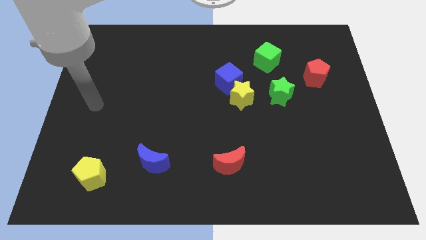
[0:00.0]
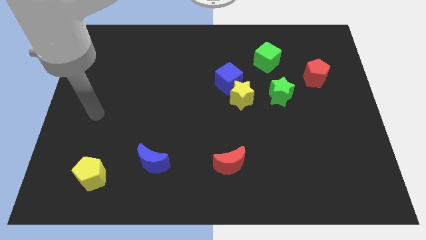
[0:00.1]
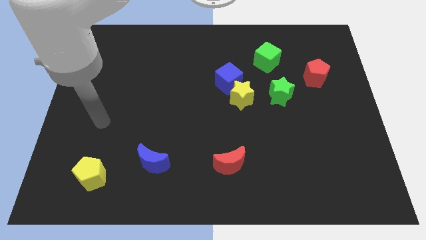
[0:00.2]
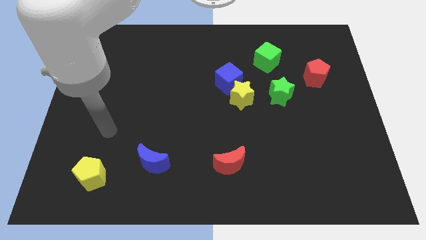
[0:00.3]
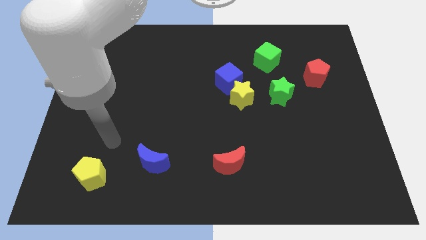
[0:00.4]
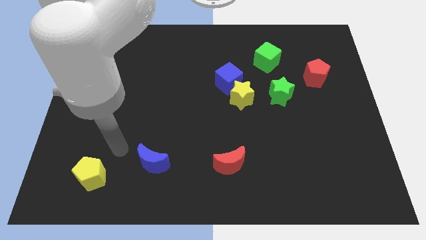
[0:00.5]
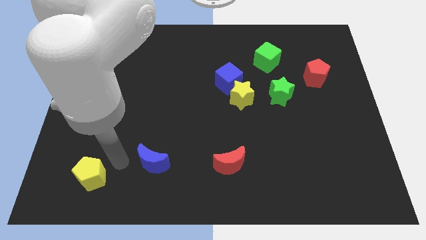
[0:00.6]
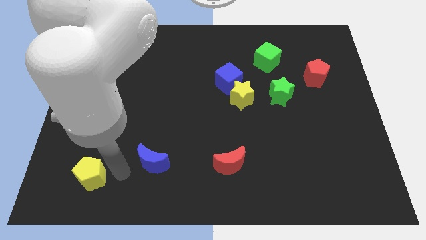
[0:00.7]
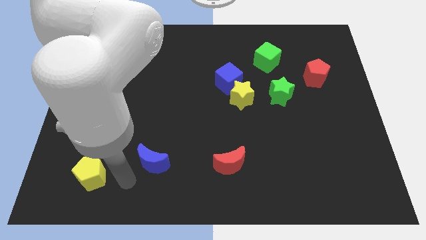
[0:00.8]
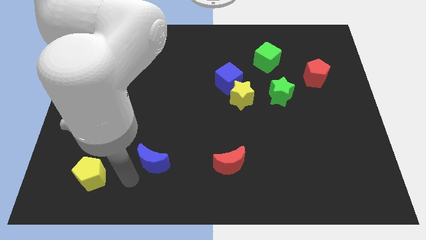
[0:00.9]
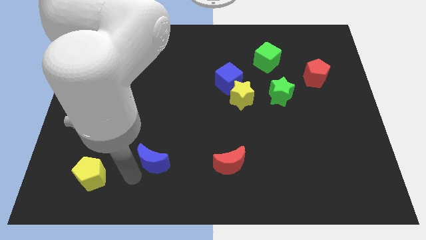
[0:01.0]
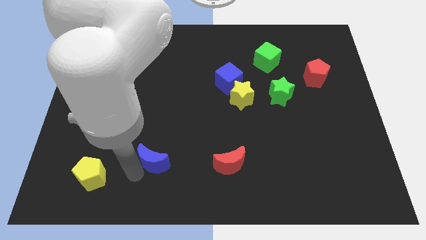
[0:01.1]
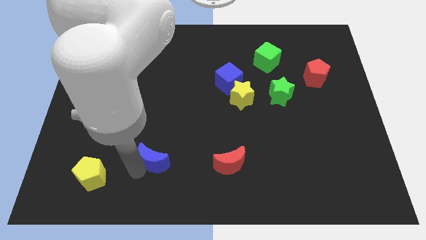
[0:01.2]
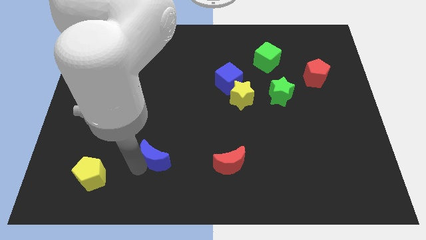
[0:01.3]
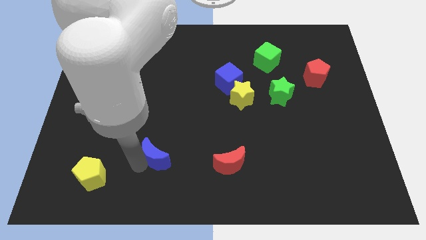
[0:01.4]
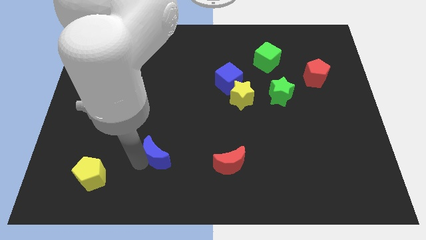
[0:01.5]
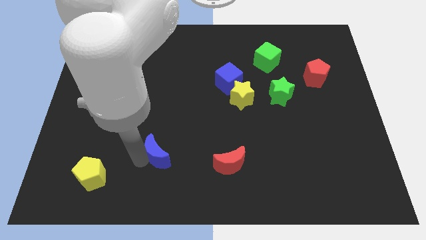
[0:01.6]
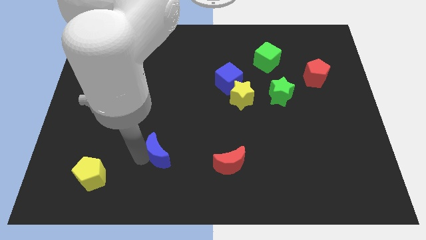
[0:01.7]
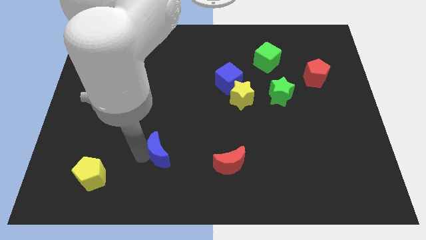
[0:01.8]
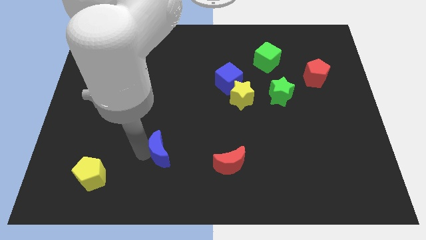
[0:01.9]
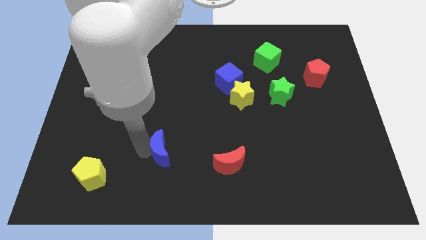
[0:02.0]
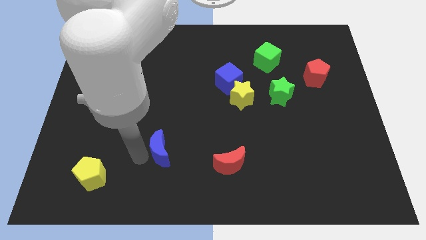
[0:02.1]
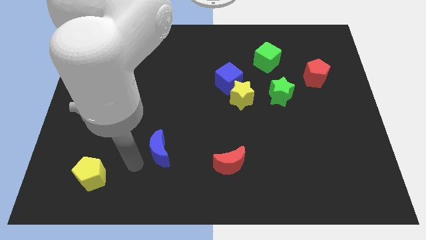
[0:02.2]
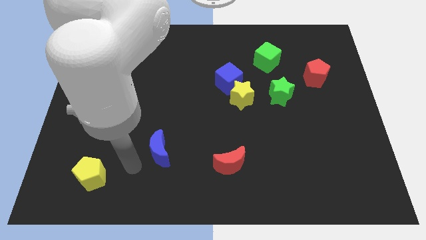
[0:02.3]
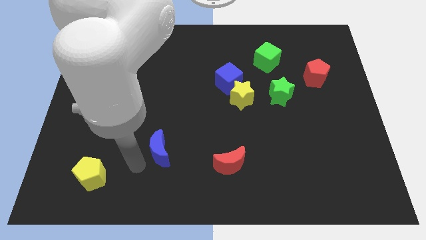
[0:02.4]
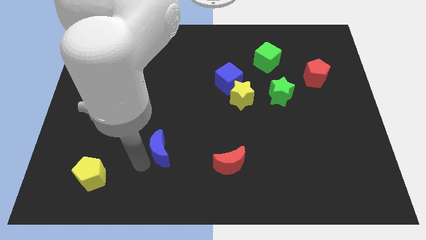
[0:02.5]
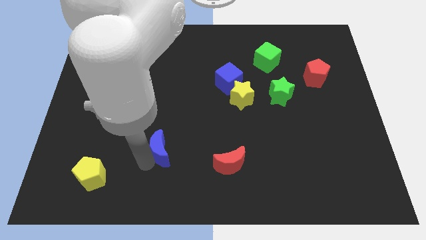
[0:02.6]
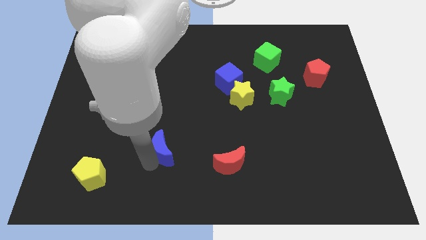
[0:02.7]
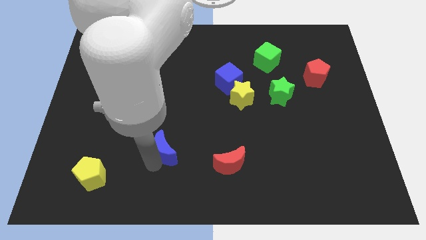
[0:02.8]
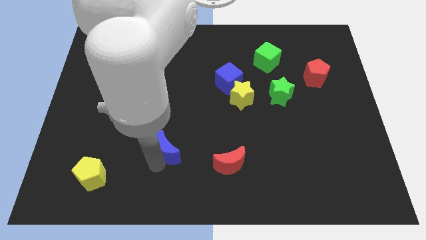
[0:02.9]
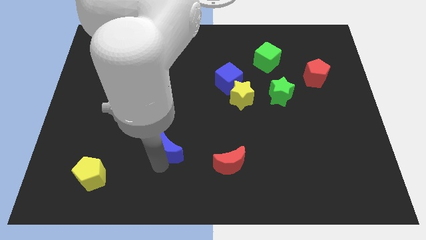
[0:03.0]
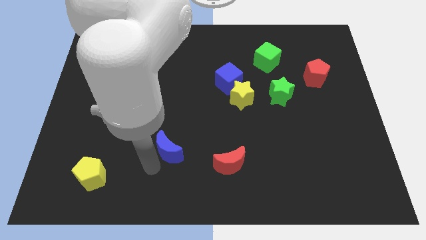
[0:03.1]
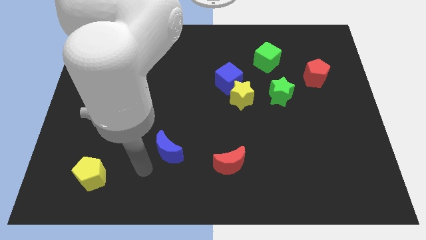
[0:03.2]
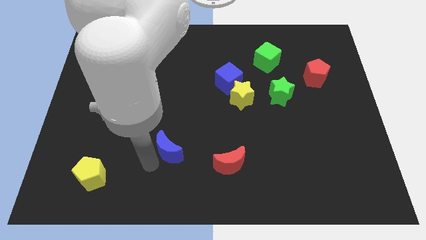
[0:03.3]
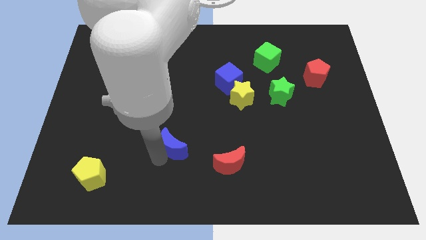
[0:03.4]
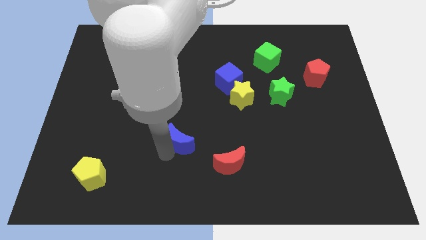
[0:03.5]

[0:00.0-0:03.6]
slide the blue moon diagonally up and right a little

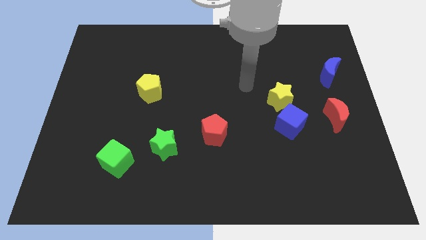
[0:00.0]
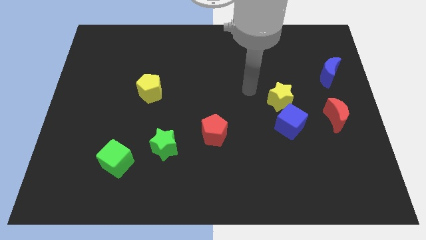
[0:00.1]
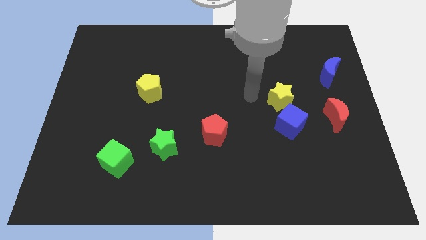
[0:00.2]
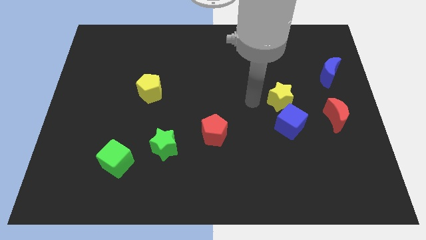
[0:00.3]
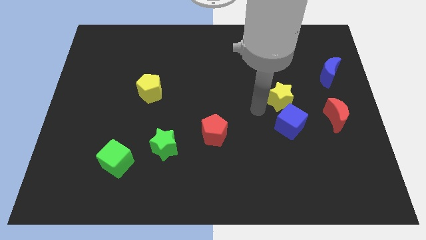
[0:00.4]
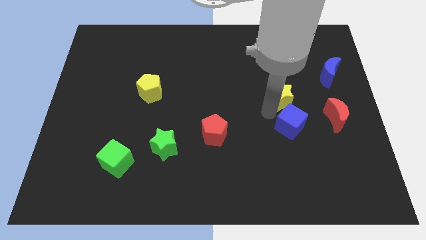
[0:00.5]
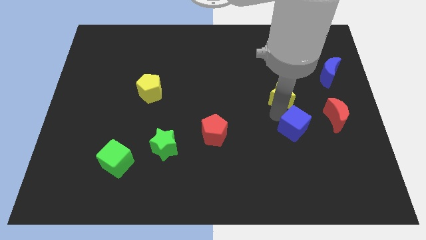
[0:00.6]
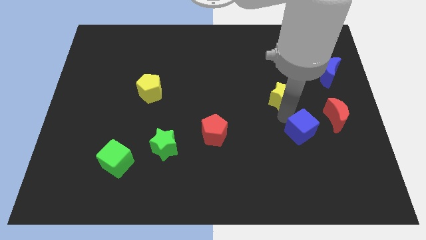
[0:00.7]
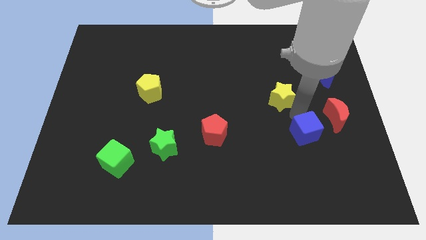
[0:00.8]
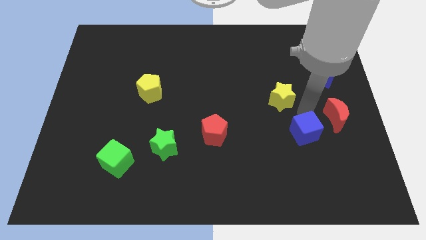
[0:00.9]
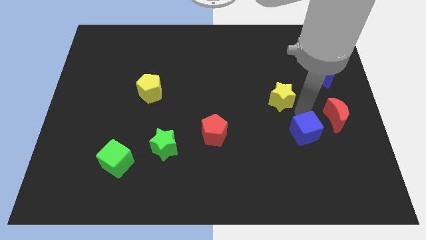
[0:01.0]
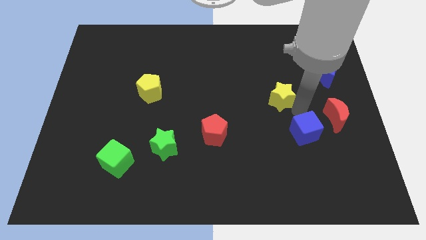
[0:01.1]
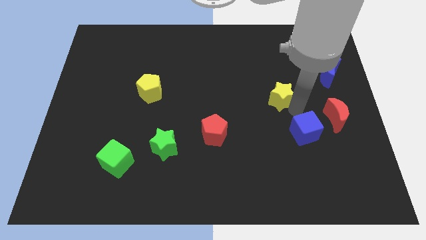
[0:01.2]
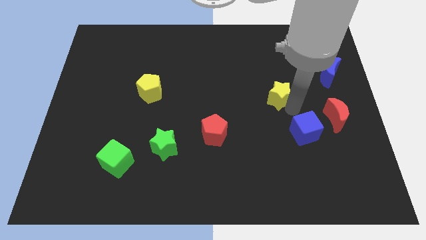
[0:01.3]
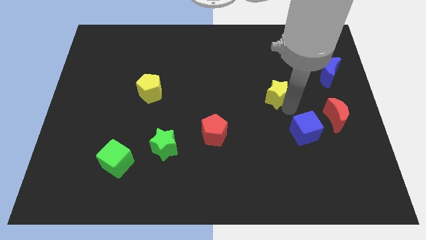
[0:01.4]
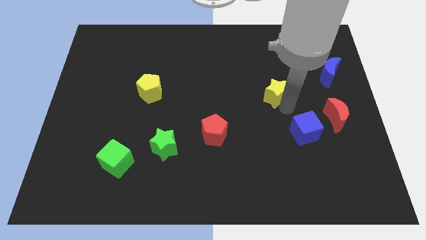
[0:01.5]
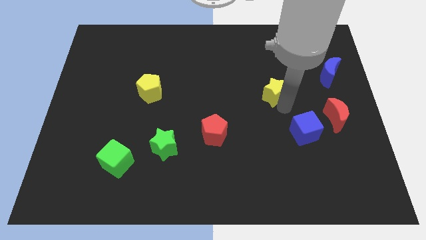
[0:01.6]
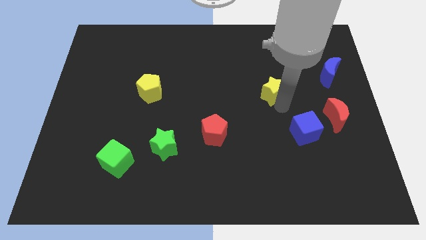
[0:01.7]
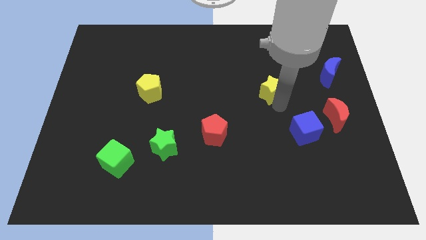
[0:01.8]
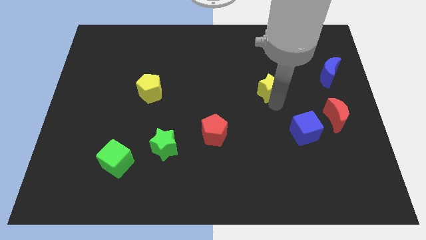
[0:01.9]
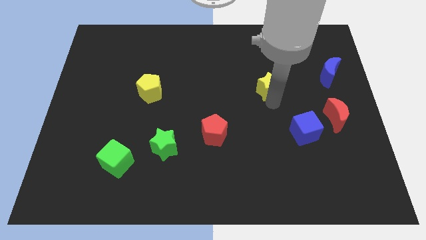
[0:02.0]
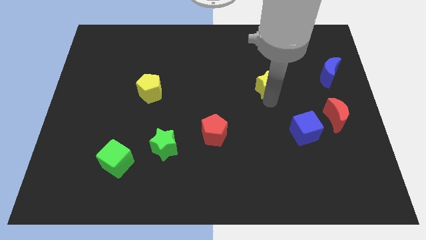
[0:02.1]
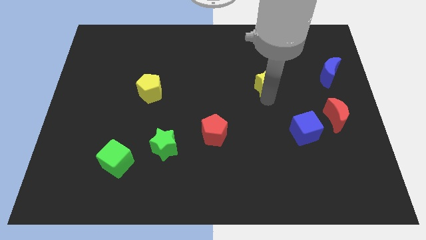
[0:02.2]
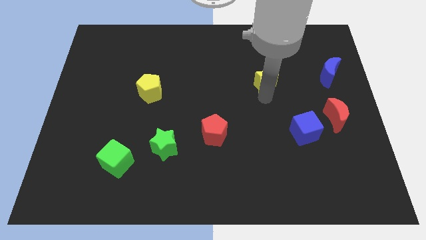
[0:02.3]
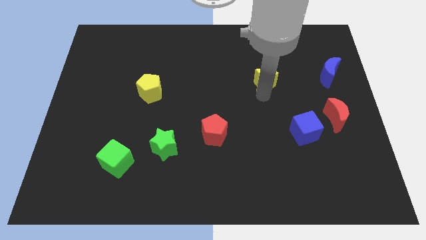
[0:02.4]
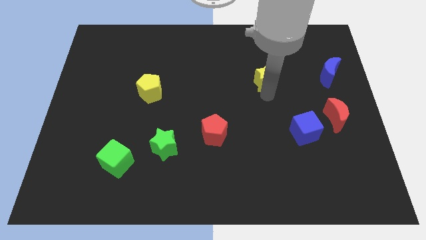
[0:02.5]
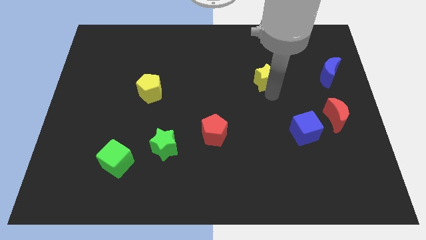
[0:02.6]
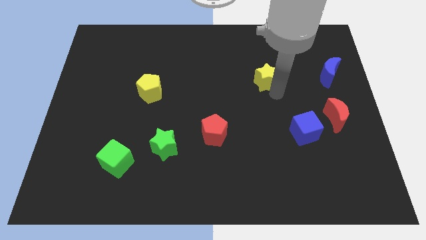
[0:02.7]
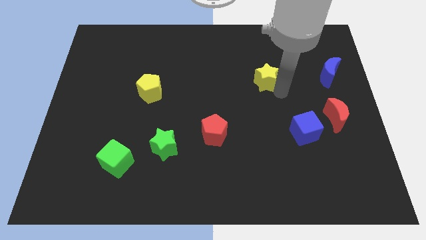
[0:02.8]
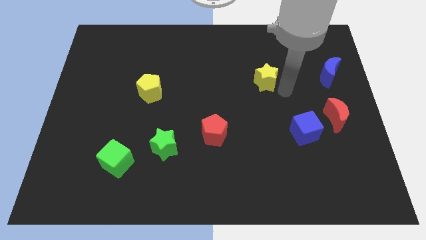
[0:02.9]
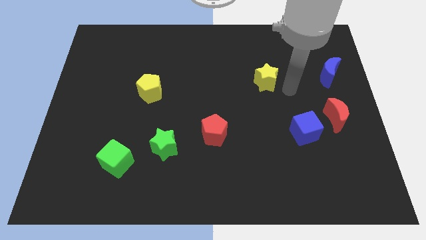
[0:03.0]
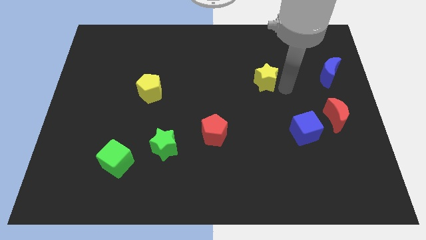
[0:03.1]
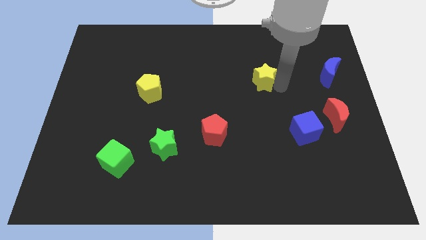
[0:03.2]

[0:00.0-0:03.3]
move the yellow star diagonally upwards and left a little bit

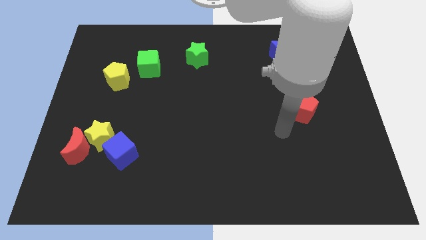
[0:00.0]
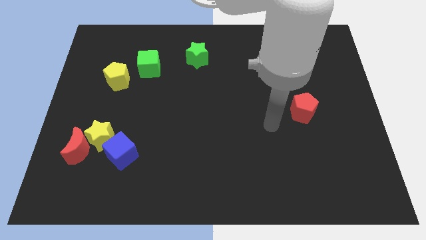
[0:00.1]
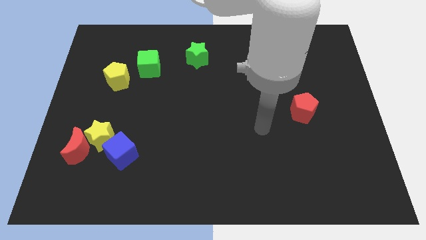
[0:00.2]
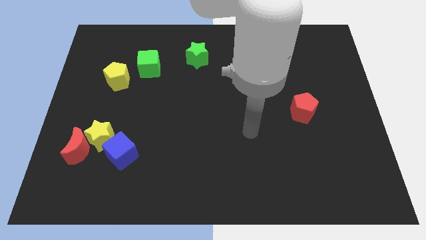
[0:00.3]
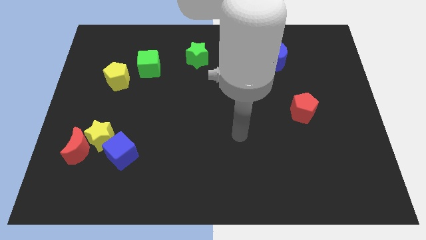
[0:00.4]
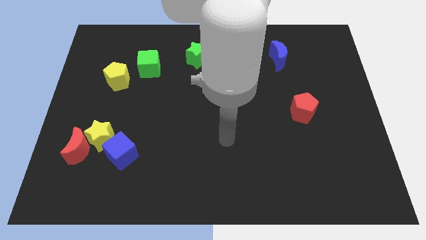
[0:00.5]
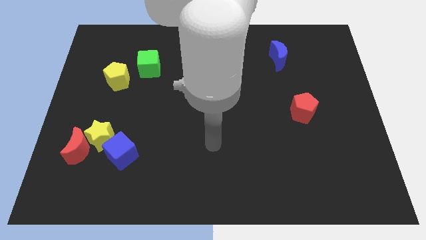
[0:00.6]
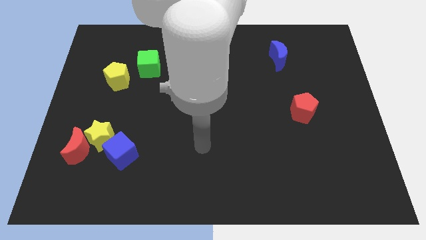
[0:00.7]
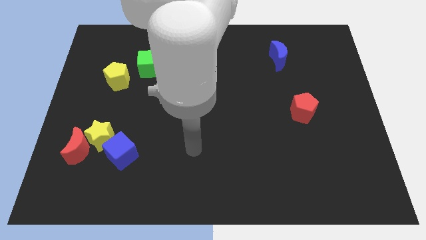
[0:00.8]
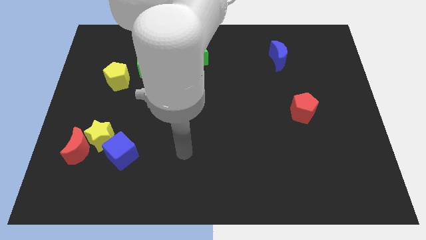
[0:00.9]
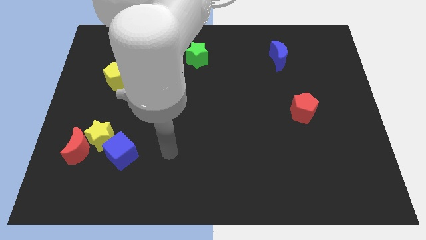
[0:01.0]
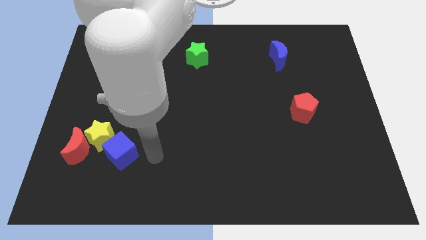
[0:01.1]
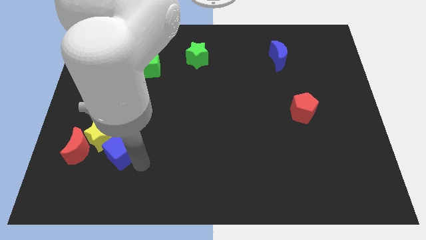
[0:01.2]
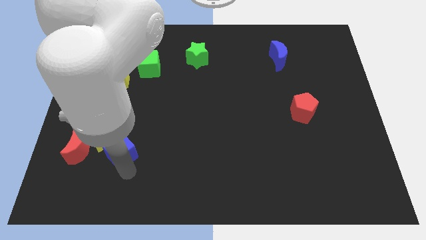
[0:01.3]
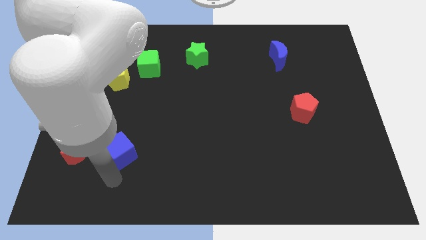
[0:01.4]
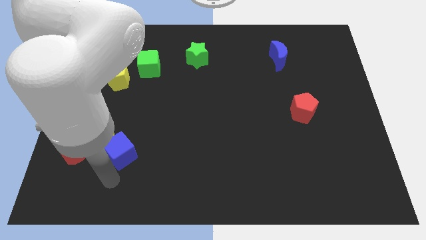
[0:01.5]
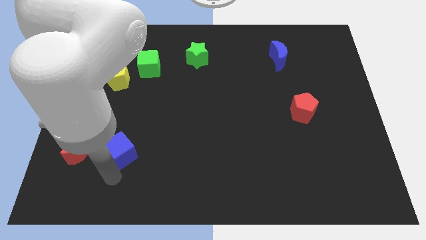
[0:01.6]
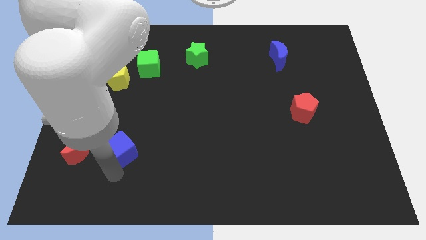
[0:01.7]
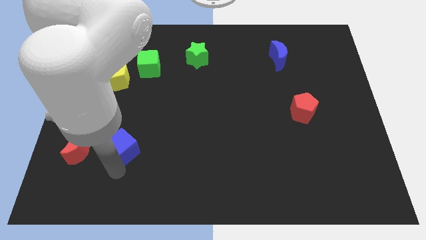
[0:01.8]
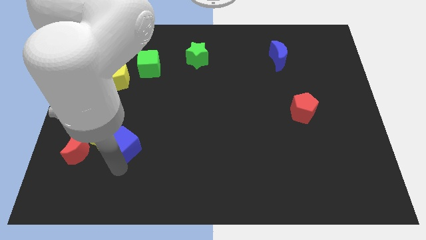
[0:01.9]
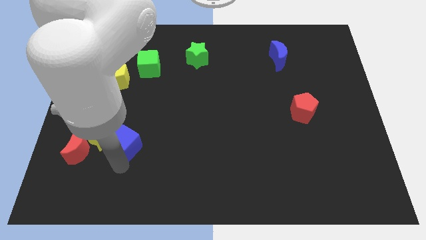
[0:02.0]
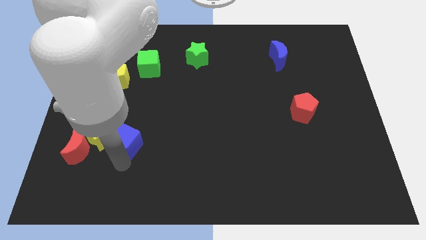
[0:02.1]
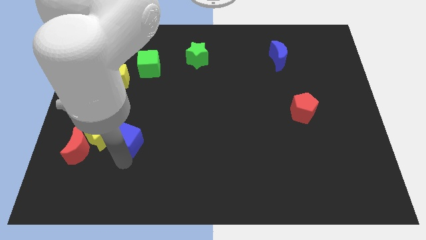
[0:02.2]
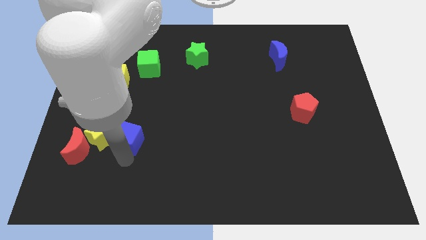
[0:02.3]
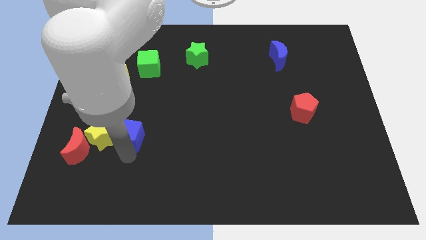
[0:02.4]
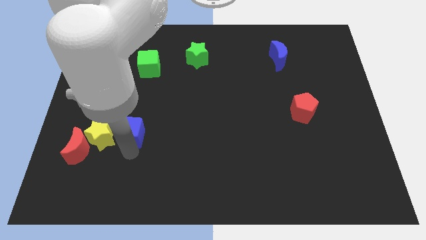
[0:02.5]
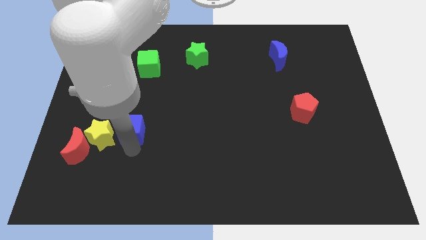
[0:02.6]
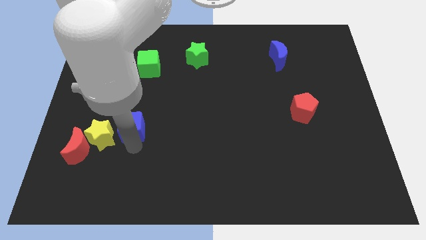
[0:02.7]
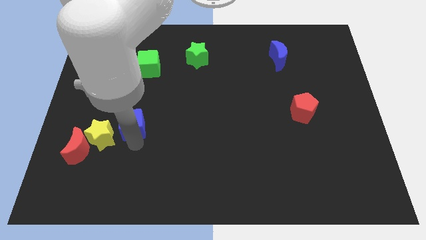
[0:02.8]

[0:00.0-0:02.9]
push the blue cube a little upwards
